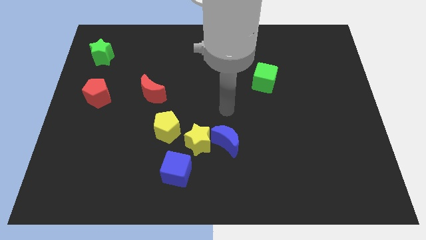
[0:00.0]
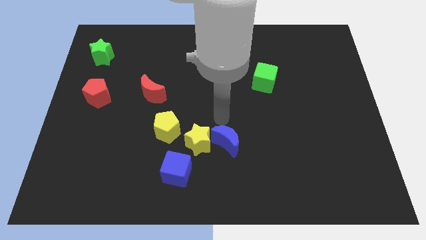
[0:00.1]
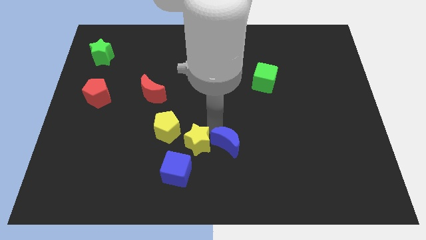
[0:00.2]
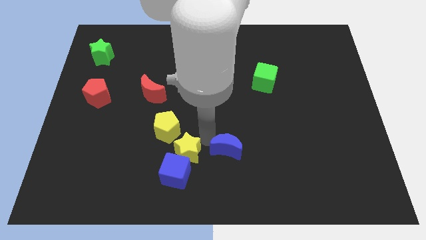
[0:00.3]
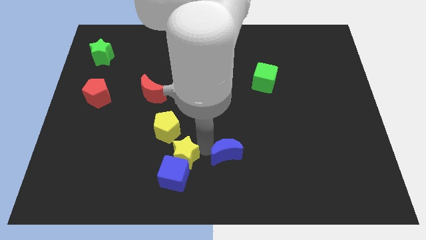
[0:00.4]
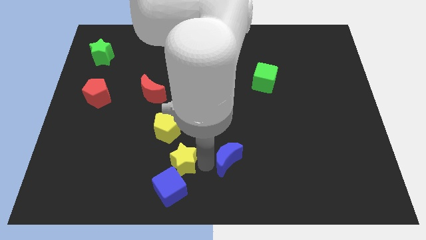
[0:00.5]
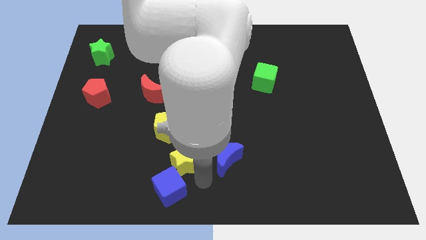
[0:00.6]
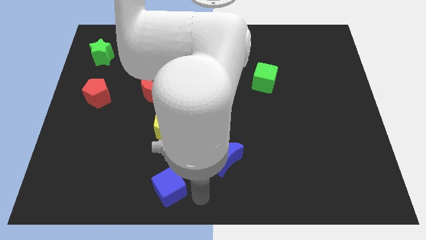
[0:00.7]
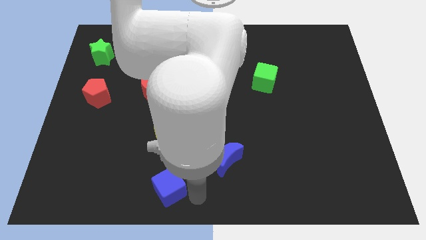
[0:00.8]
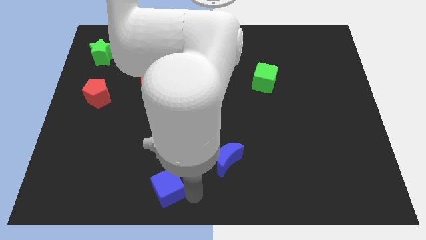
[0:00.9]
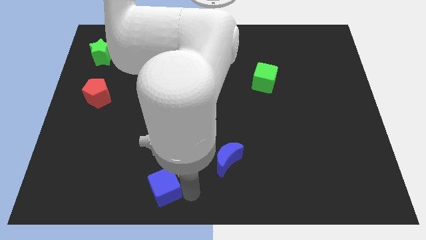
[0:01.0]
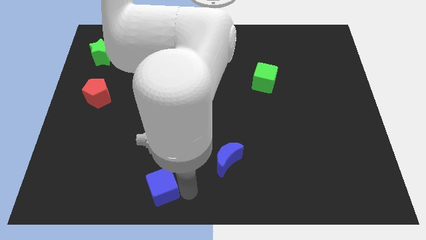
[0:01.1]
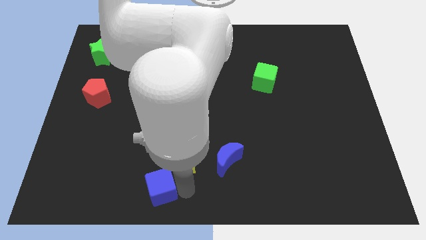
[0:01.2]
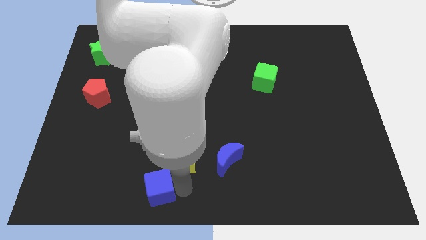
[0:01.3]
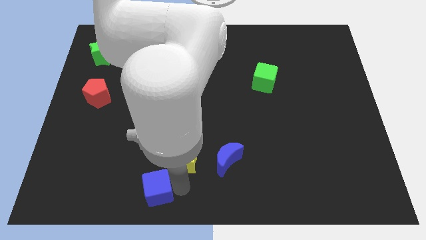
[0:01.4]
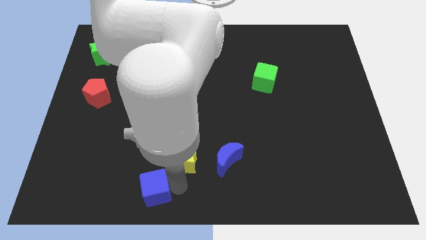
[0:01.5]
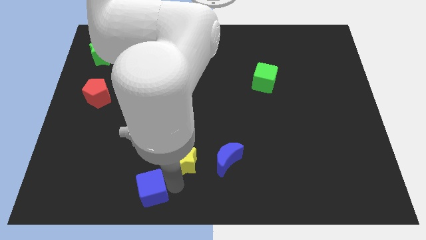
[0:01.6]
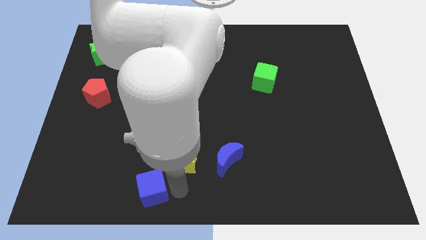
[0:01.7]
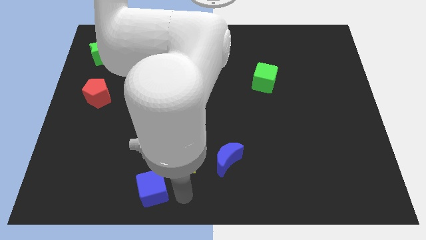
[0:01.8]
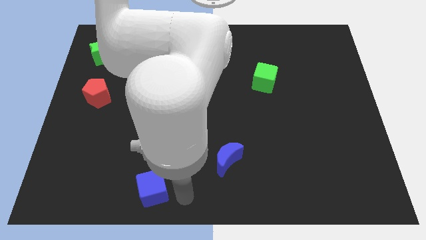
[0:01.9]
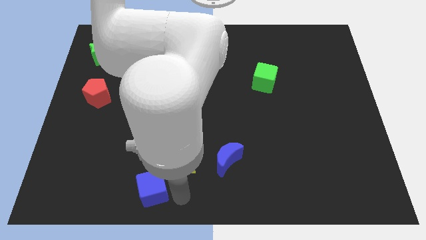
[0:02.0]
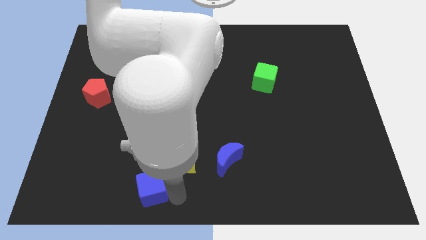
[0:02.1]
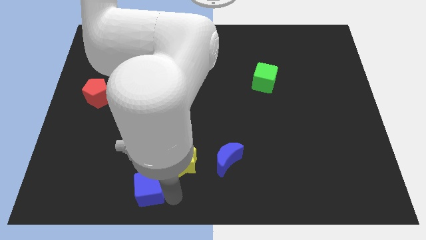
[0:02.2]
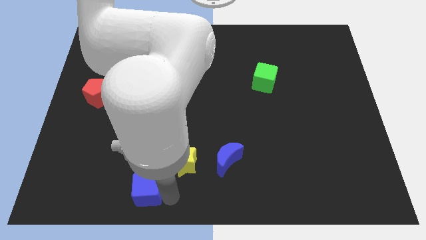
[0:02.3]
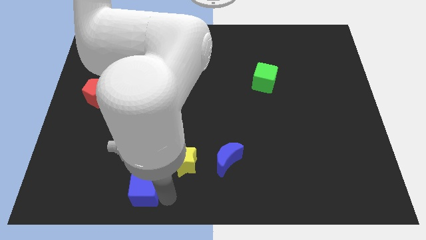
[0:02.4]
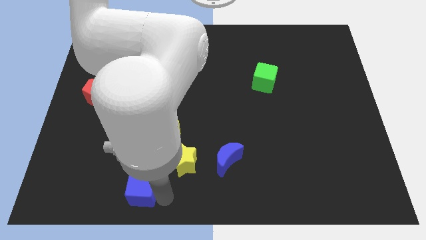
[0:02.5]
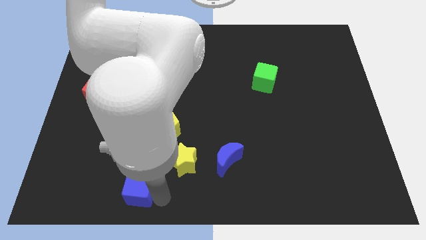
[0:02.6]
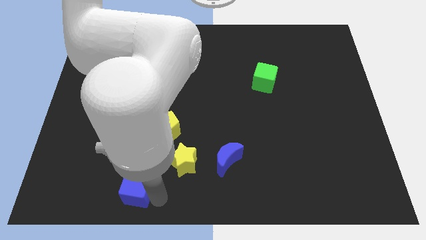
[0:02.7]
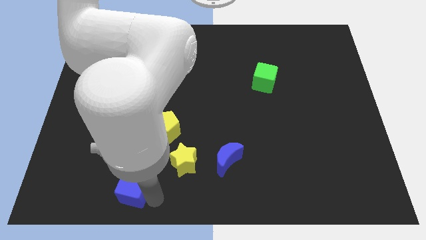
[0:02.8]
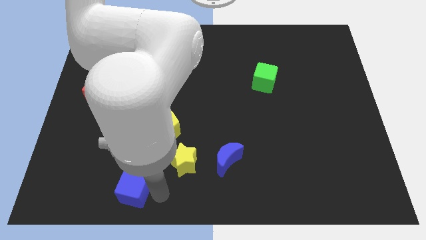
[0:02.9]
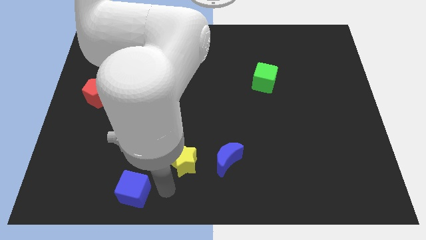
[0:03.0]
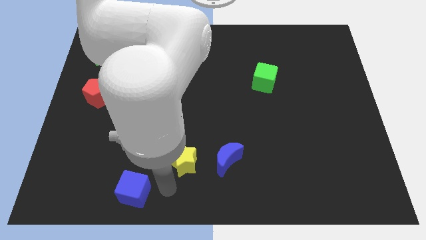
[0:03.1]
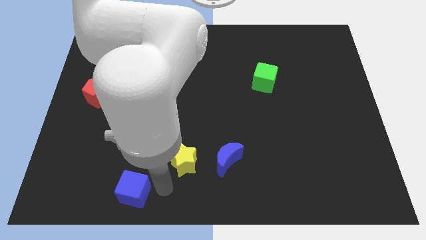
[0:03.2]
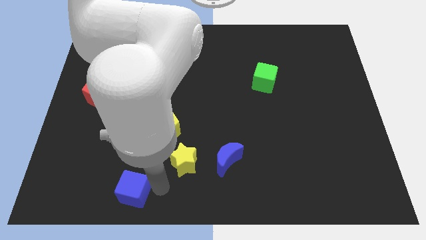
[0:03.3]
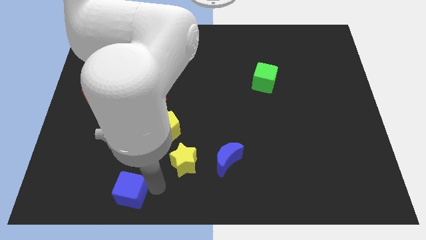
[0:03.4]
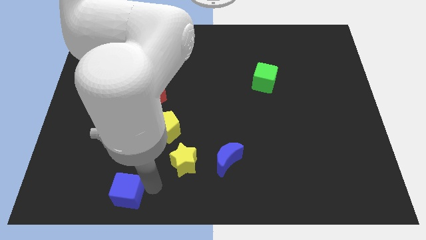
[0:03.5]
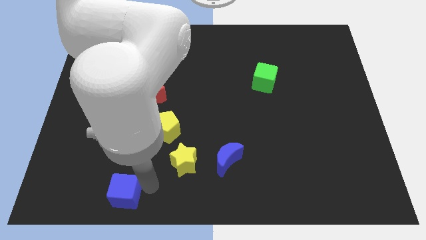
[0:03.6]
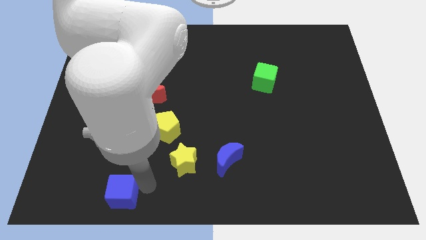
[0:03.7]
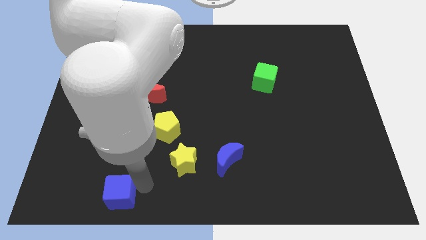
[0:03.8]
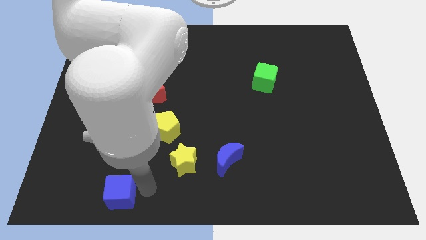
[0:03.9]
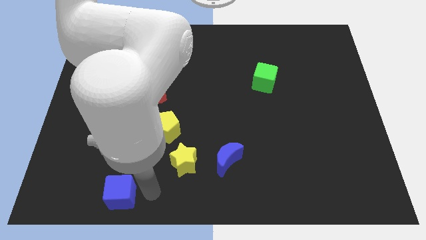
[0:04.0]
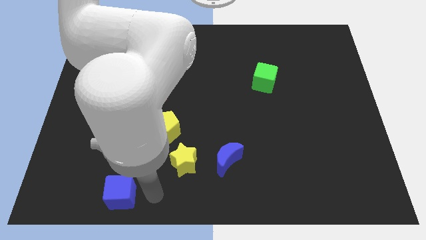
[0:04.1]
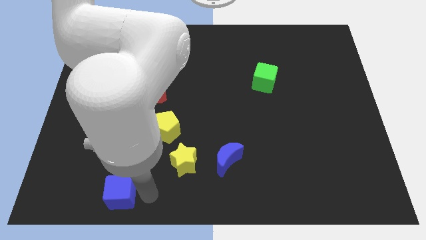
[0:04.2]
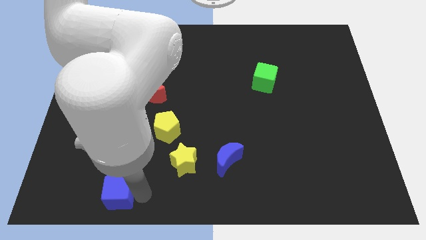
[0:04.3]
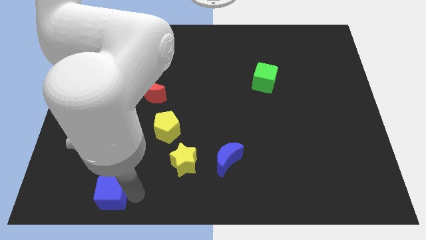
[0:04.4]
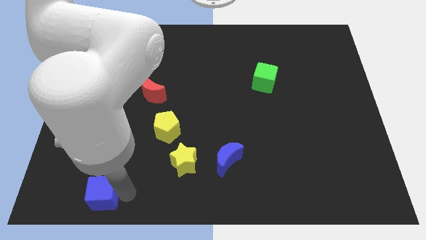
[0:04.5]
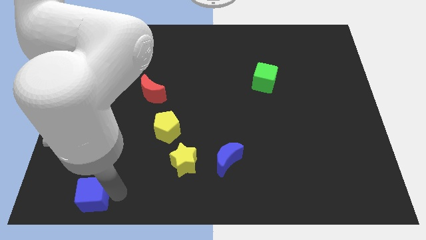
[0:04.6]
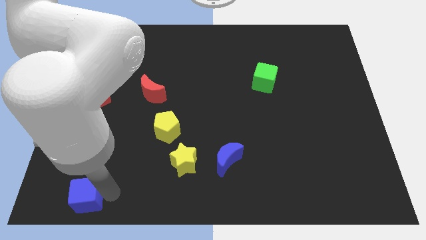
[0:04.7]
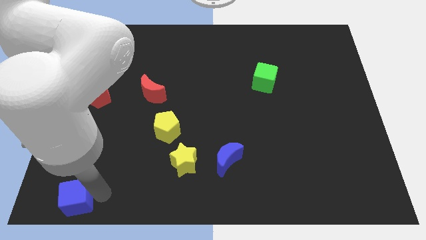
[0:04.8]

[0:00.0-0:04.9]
put the blue cube to the bottom left of the board

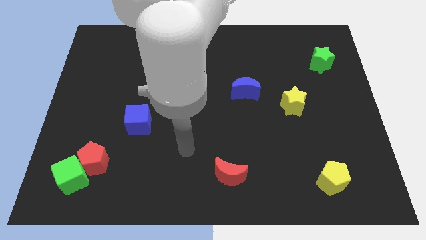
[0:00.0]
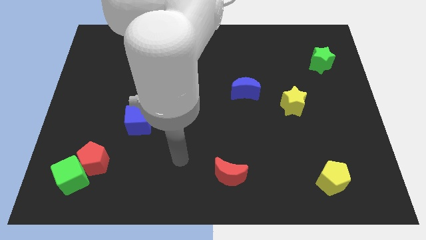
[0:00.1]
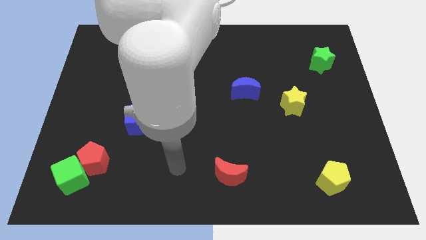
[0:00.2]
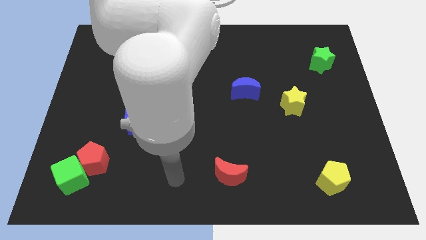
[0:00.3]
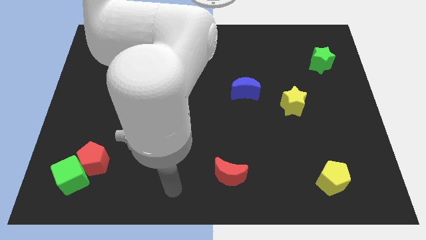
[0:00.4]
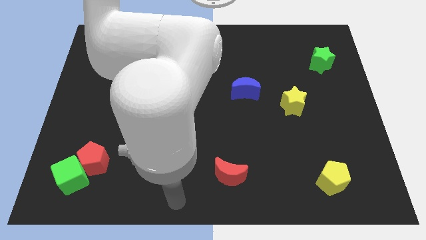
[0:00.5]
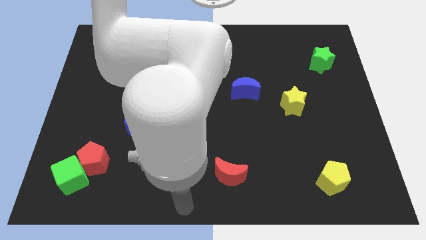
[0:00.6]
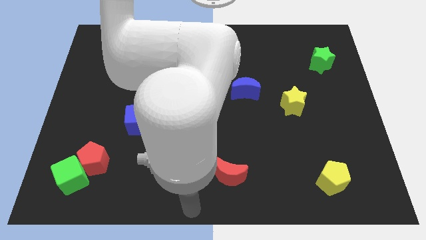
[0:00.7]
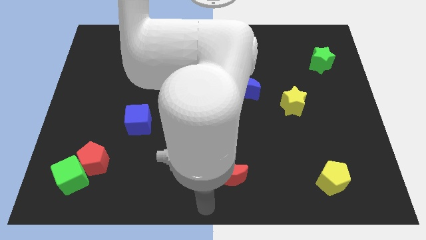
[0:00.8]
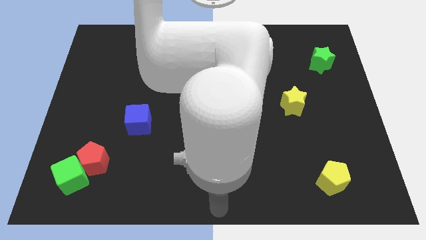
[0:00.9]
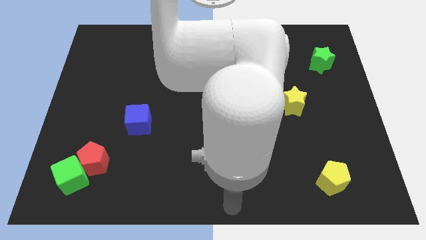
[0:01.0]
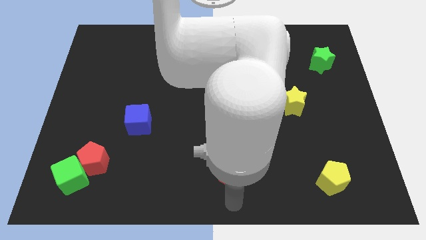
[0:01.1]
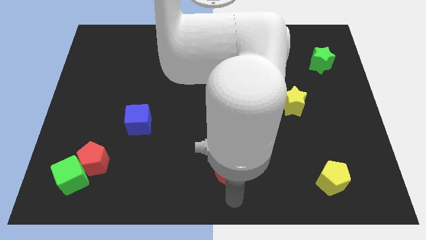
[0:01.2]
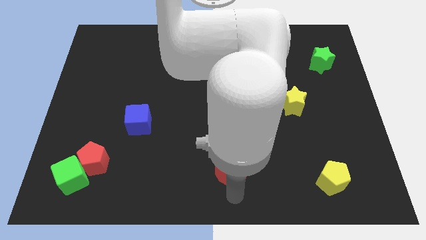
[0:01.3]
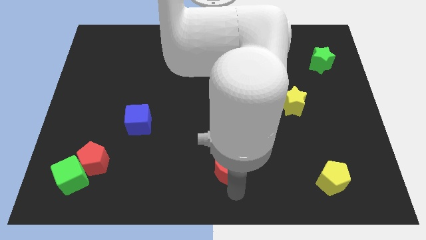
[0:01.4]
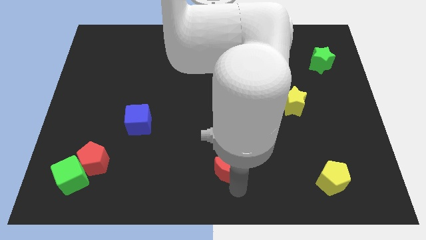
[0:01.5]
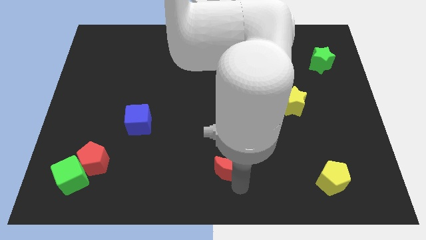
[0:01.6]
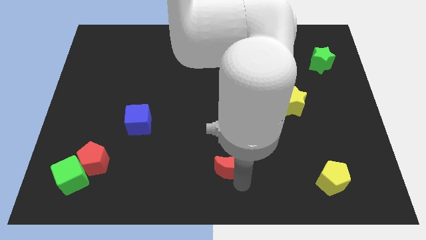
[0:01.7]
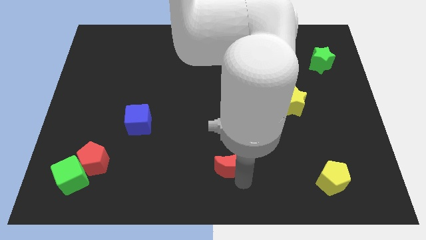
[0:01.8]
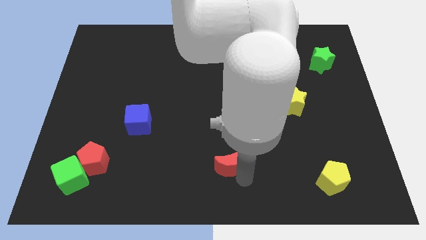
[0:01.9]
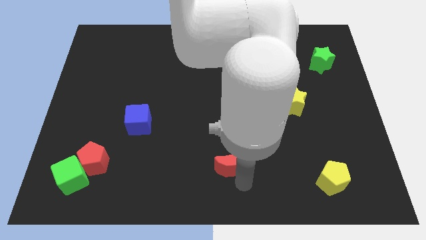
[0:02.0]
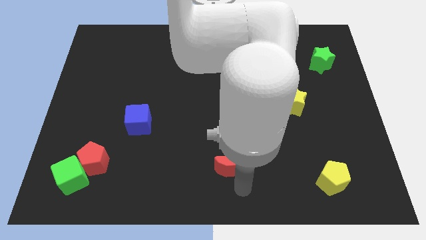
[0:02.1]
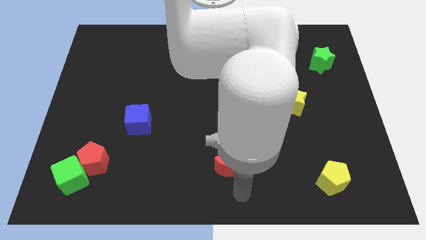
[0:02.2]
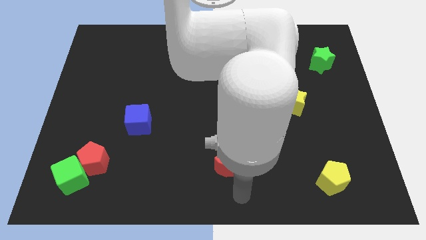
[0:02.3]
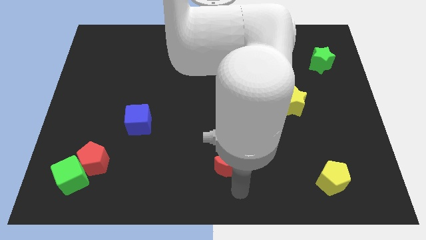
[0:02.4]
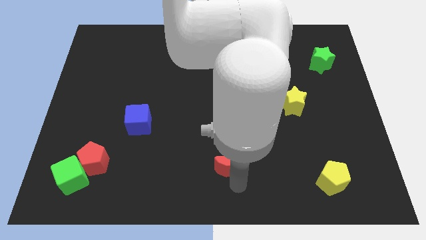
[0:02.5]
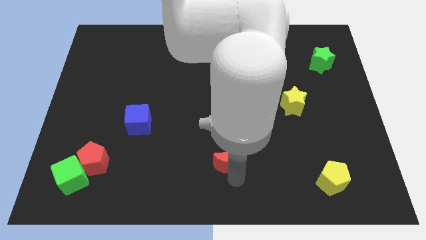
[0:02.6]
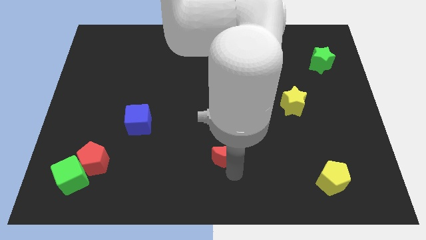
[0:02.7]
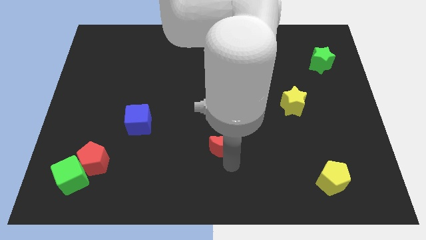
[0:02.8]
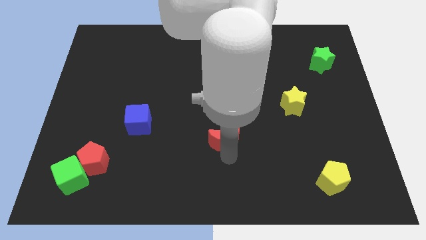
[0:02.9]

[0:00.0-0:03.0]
push the red moon to the middle
